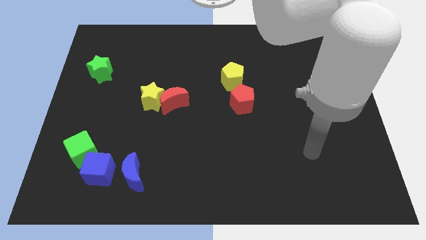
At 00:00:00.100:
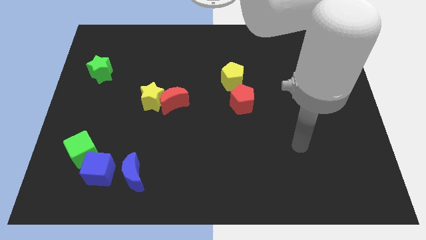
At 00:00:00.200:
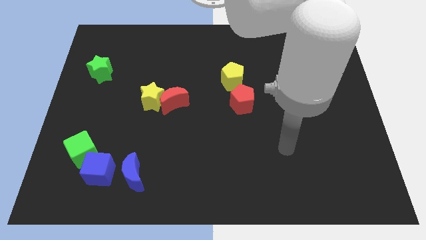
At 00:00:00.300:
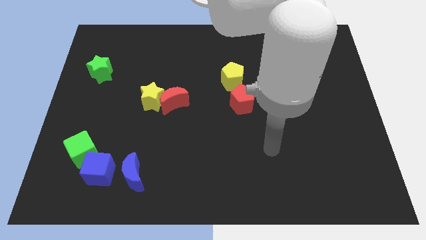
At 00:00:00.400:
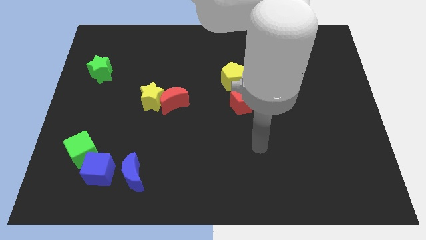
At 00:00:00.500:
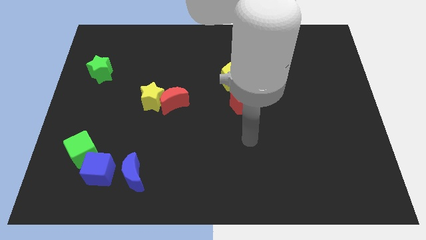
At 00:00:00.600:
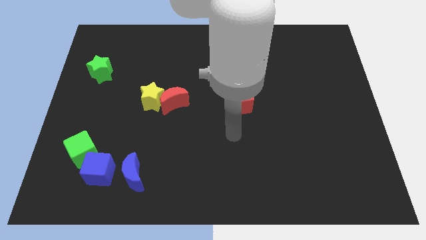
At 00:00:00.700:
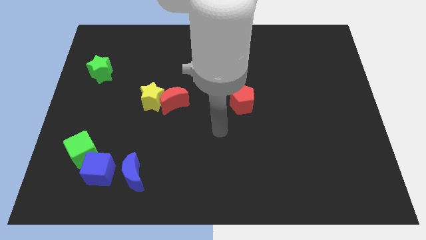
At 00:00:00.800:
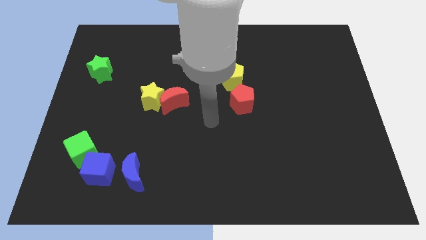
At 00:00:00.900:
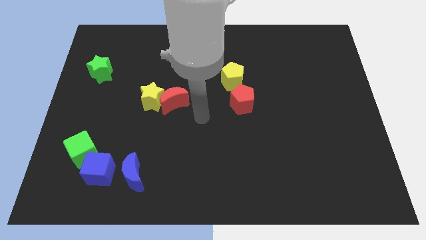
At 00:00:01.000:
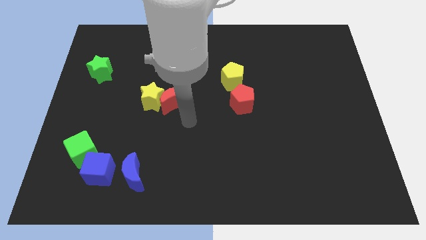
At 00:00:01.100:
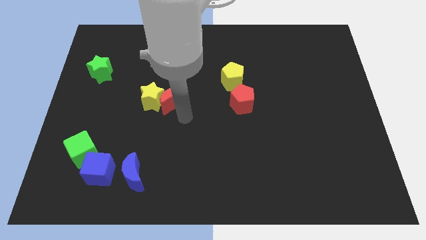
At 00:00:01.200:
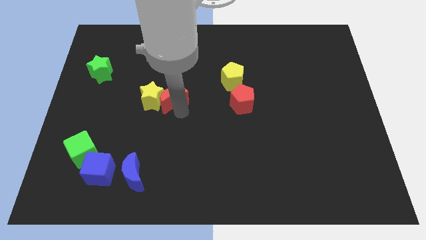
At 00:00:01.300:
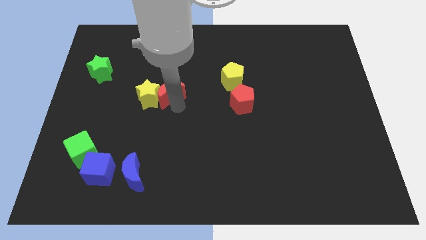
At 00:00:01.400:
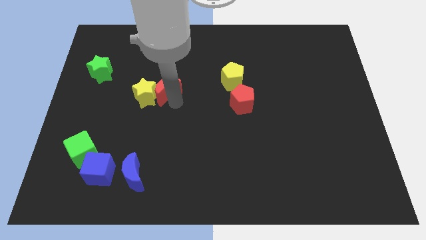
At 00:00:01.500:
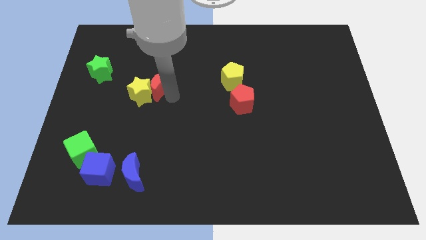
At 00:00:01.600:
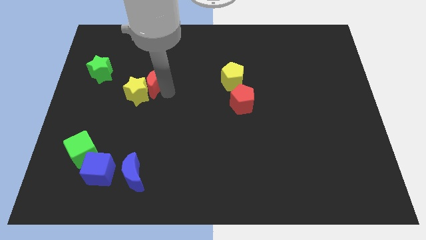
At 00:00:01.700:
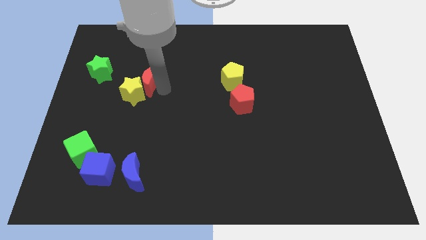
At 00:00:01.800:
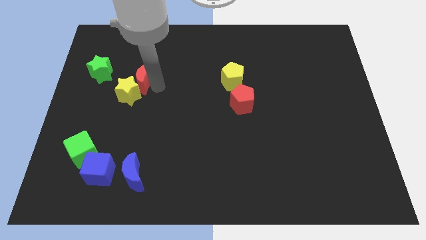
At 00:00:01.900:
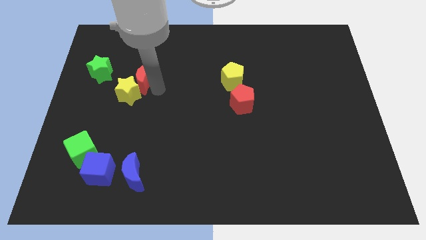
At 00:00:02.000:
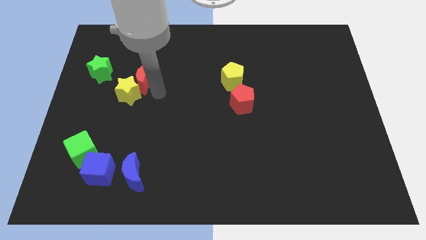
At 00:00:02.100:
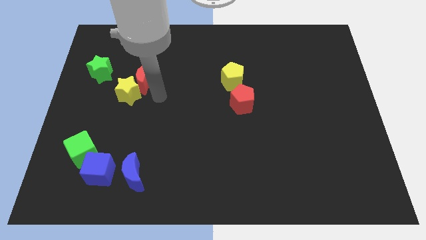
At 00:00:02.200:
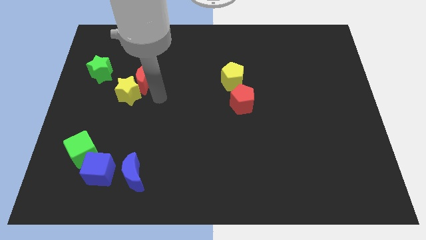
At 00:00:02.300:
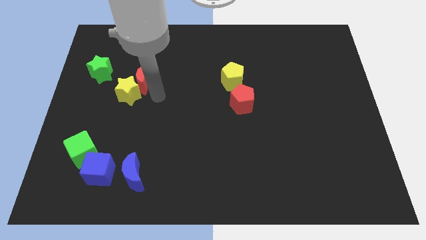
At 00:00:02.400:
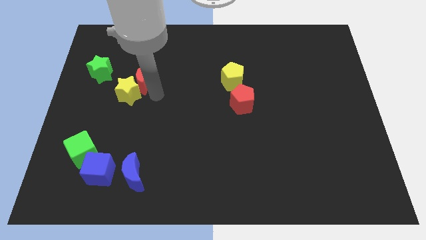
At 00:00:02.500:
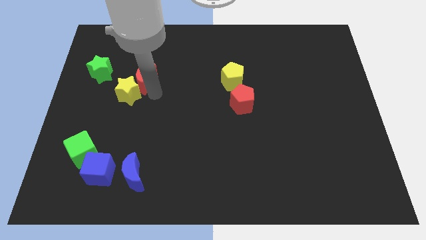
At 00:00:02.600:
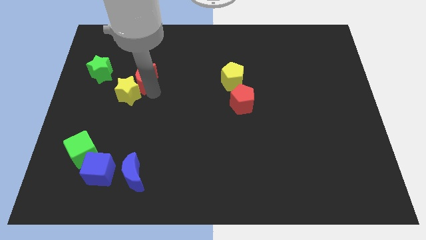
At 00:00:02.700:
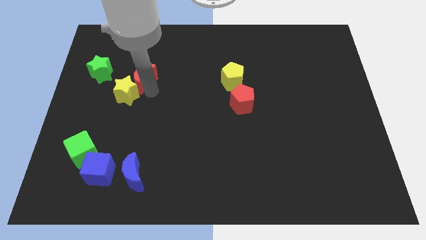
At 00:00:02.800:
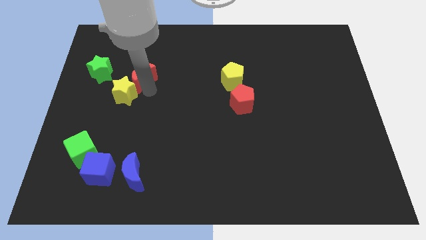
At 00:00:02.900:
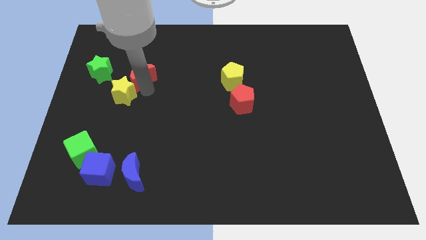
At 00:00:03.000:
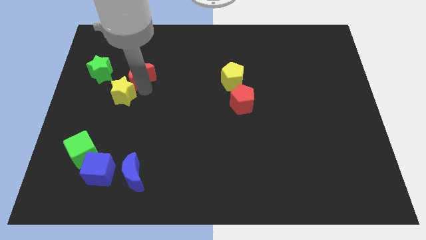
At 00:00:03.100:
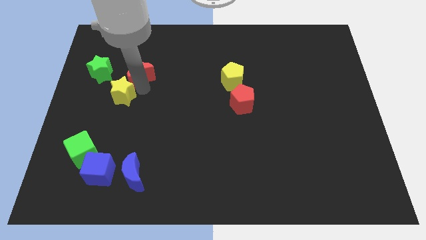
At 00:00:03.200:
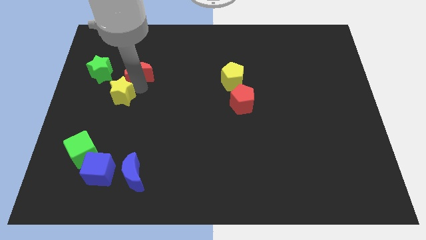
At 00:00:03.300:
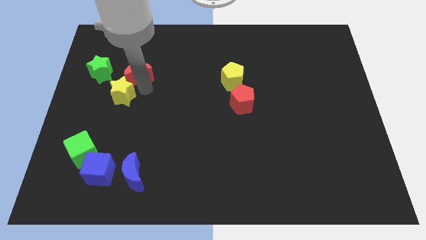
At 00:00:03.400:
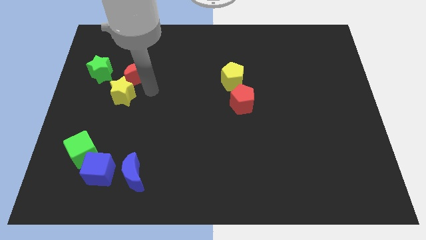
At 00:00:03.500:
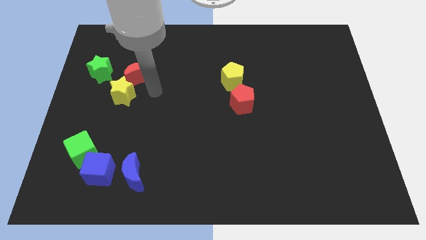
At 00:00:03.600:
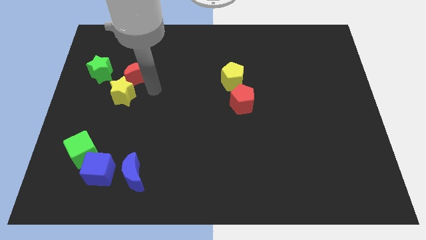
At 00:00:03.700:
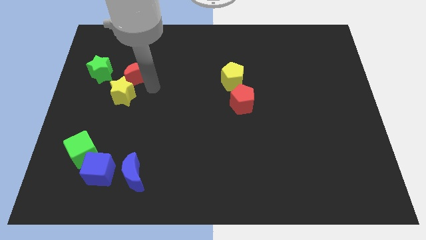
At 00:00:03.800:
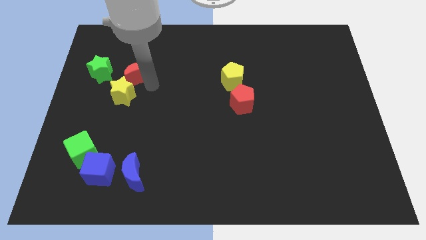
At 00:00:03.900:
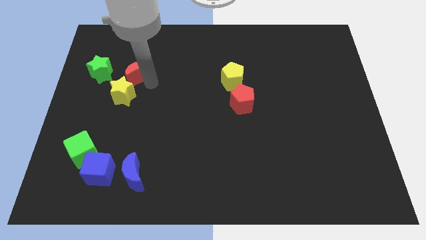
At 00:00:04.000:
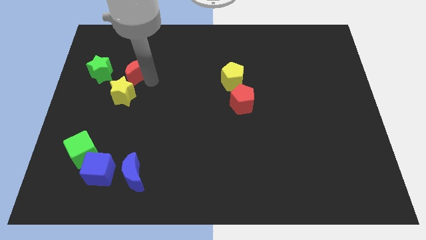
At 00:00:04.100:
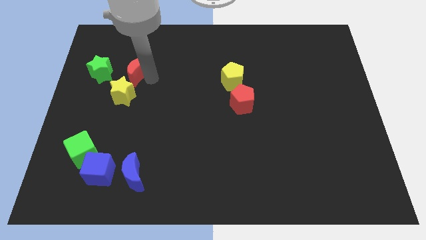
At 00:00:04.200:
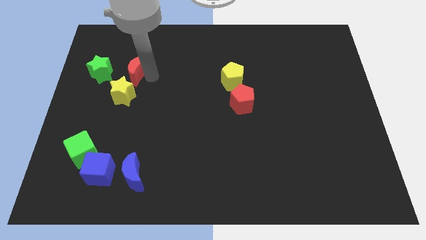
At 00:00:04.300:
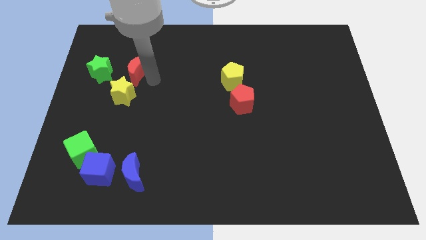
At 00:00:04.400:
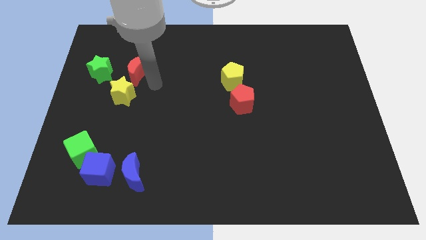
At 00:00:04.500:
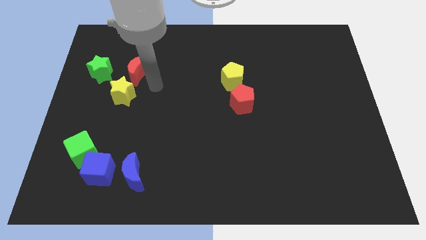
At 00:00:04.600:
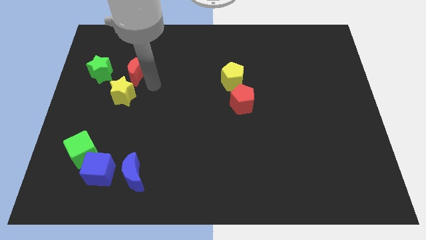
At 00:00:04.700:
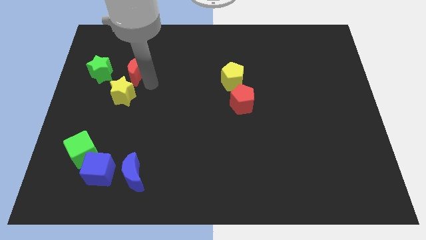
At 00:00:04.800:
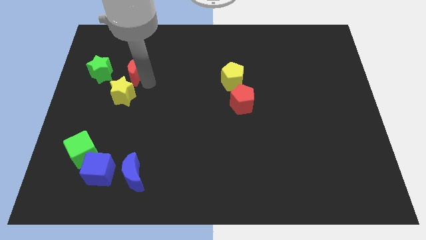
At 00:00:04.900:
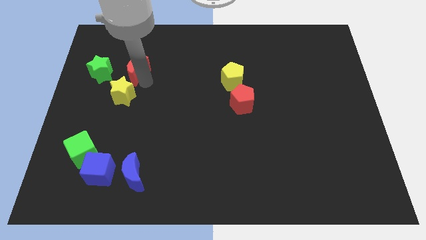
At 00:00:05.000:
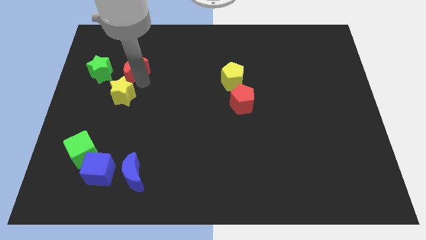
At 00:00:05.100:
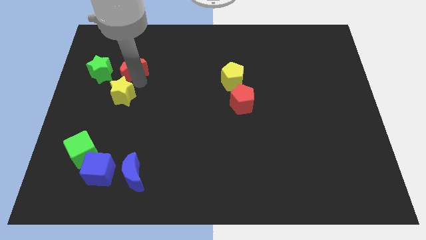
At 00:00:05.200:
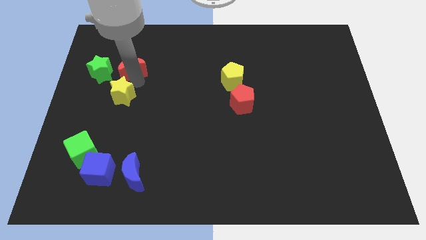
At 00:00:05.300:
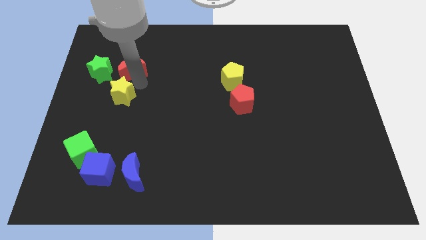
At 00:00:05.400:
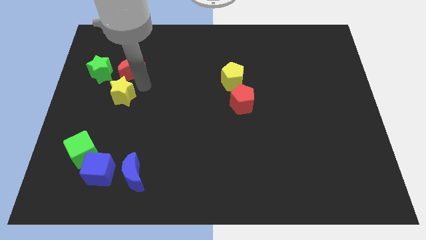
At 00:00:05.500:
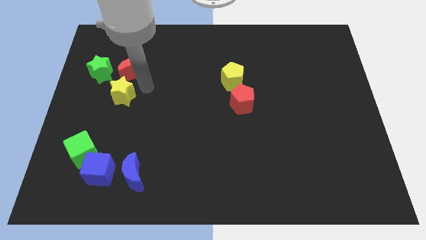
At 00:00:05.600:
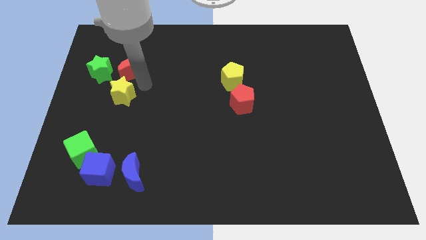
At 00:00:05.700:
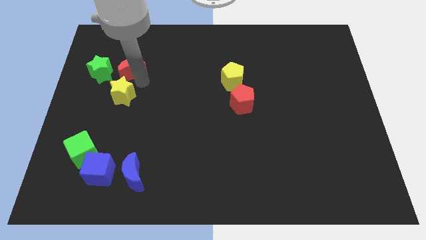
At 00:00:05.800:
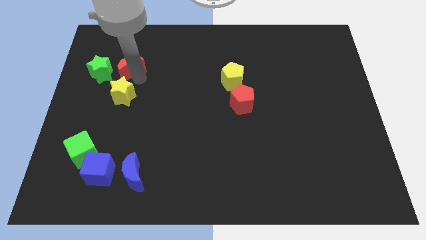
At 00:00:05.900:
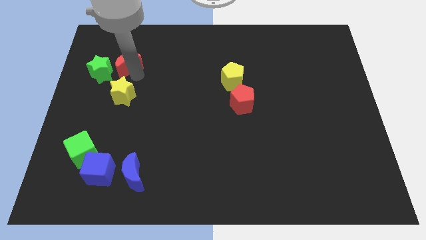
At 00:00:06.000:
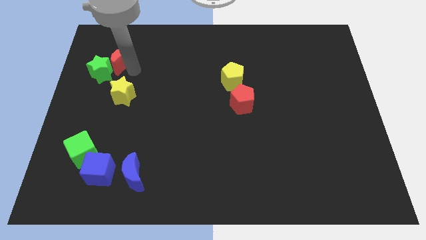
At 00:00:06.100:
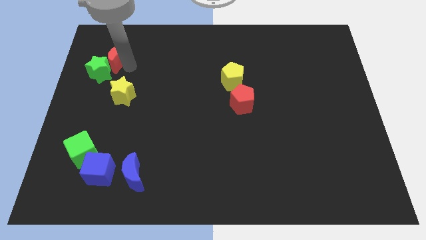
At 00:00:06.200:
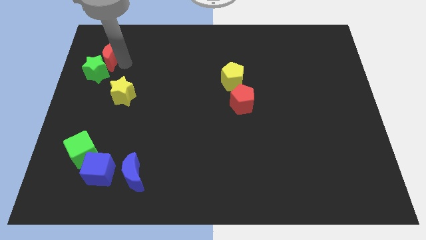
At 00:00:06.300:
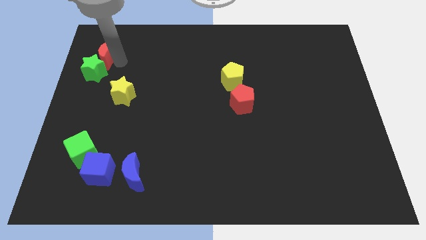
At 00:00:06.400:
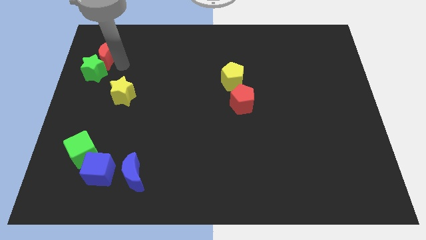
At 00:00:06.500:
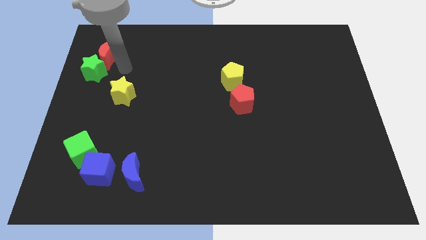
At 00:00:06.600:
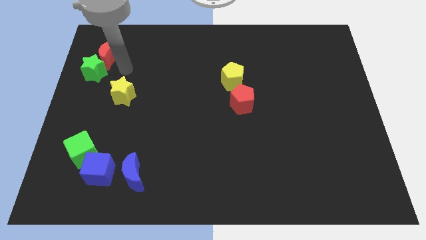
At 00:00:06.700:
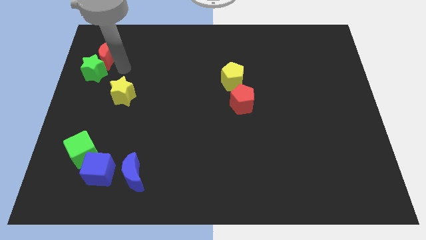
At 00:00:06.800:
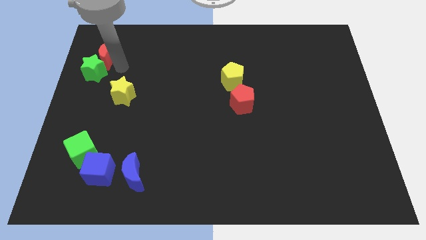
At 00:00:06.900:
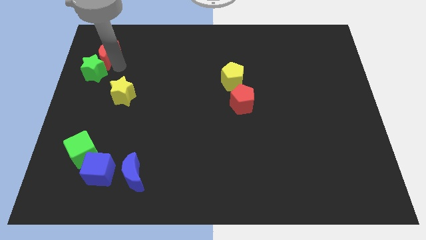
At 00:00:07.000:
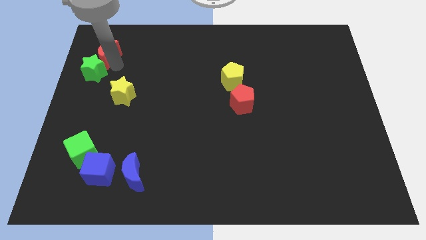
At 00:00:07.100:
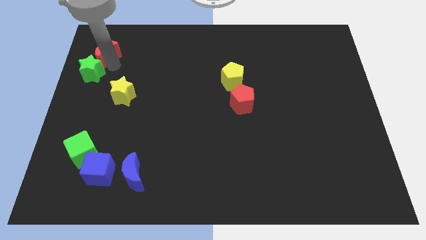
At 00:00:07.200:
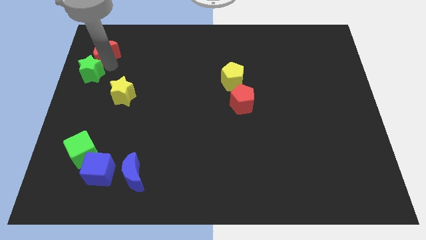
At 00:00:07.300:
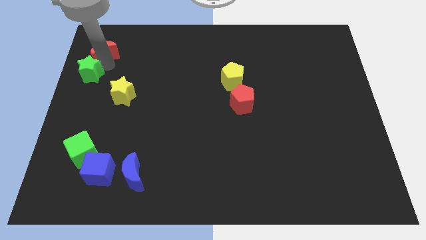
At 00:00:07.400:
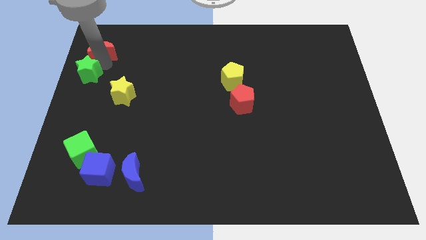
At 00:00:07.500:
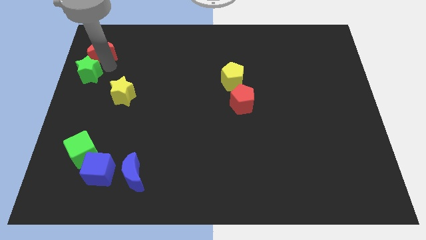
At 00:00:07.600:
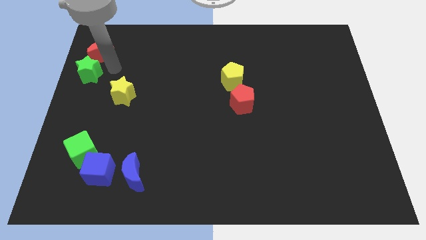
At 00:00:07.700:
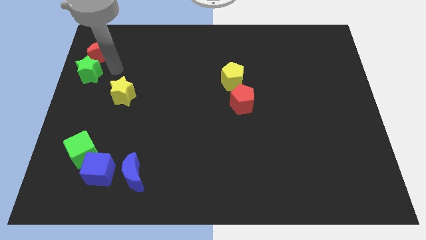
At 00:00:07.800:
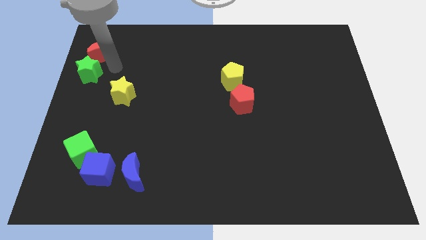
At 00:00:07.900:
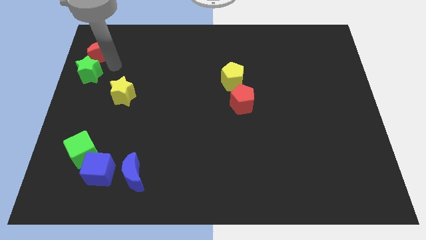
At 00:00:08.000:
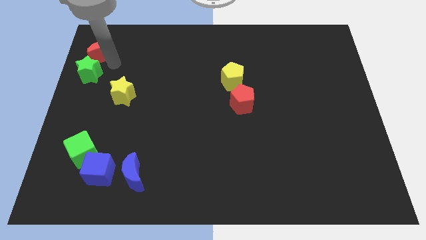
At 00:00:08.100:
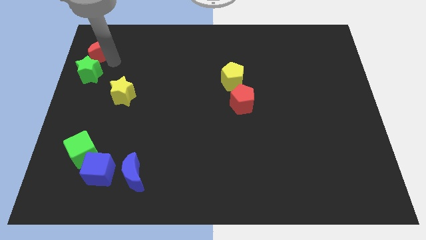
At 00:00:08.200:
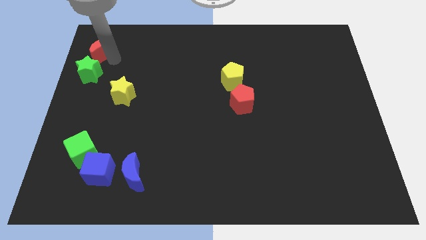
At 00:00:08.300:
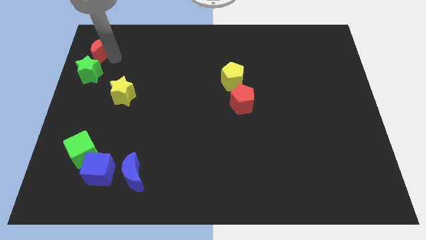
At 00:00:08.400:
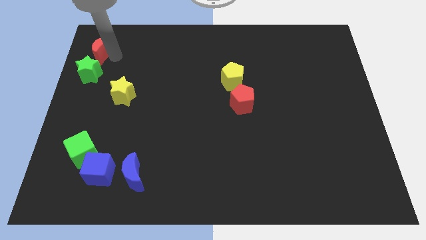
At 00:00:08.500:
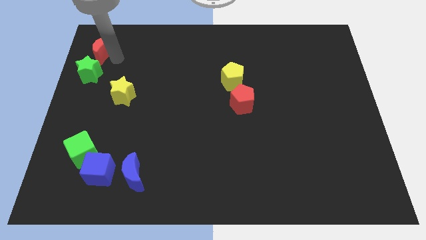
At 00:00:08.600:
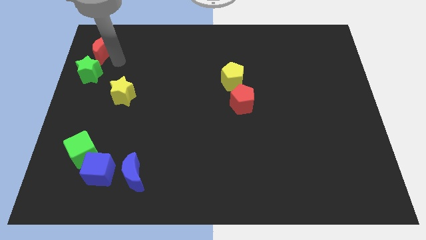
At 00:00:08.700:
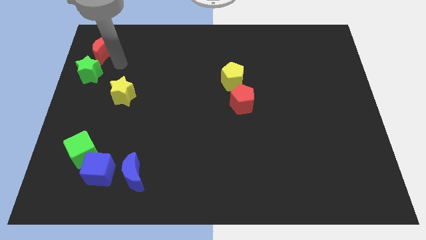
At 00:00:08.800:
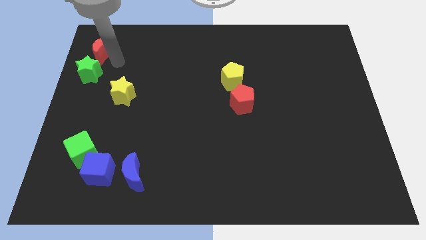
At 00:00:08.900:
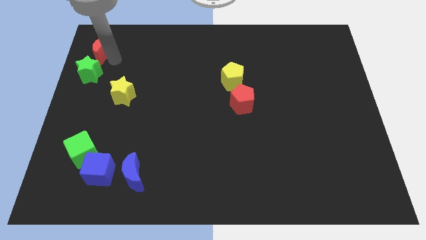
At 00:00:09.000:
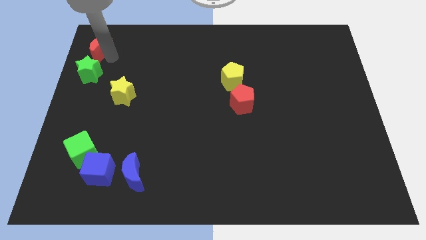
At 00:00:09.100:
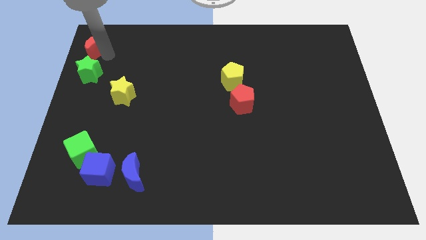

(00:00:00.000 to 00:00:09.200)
push the red moon to the top left of the board
